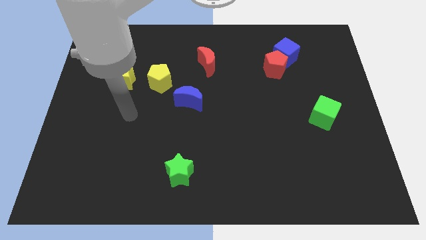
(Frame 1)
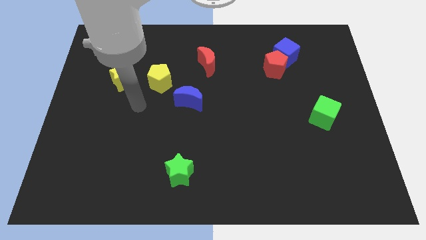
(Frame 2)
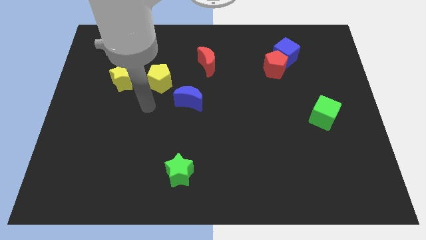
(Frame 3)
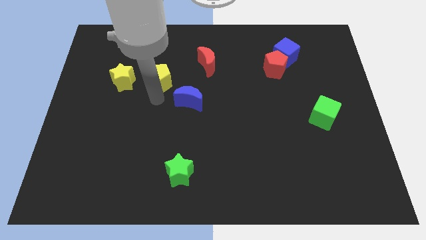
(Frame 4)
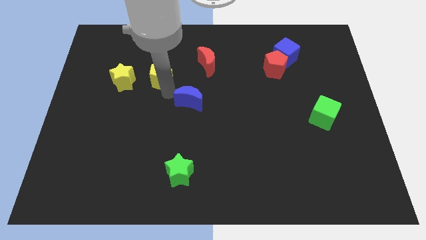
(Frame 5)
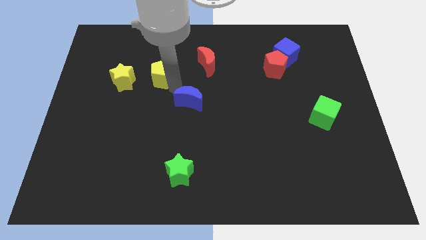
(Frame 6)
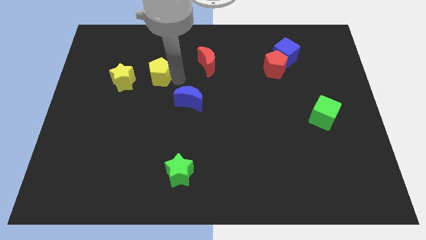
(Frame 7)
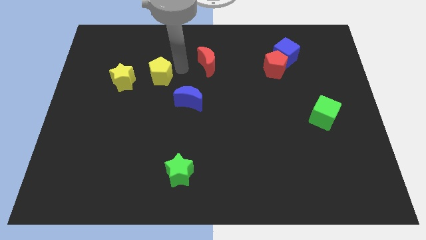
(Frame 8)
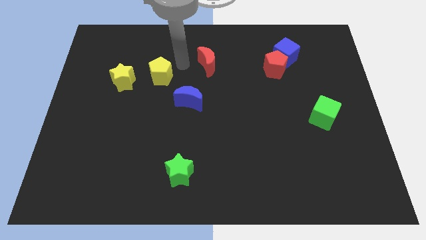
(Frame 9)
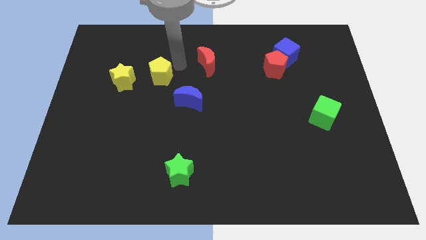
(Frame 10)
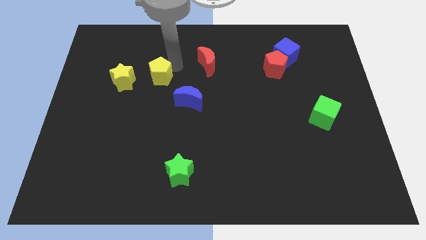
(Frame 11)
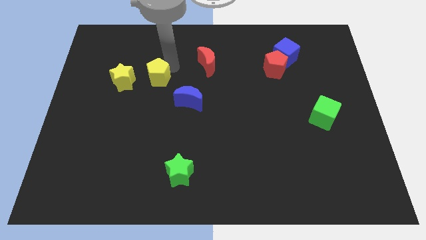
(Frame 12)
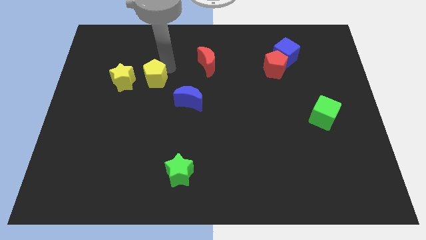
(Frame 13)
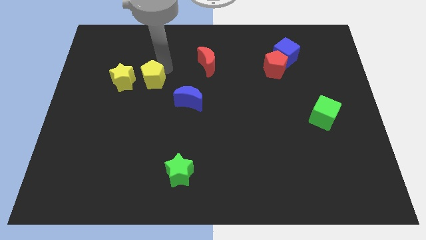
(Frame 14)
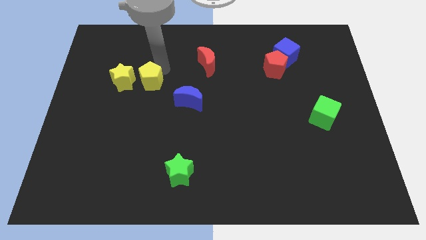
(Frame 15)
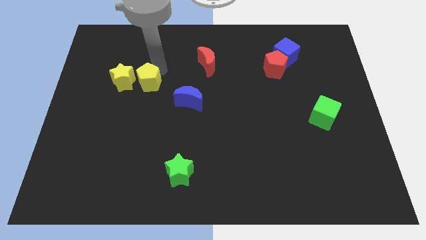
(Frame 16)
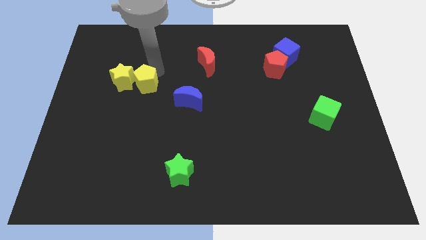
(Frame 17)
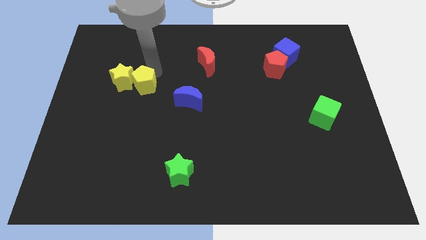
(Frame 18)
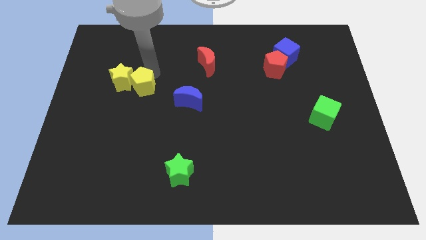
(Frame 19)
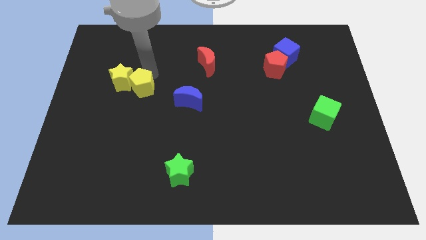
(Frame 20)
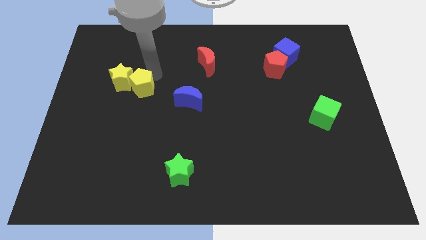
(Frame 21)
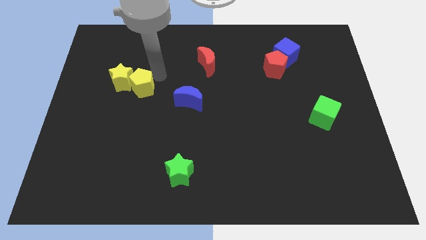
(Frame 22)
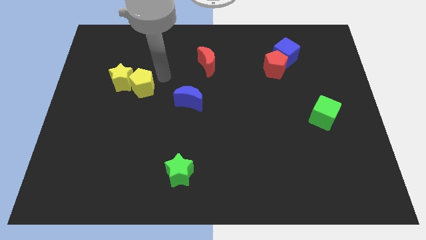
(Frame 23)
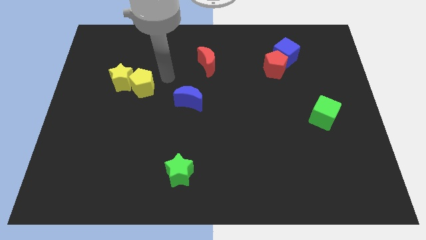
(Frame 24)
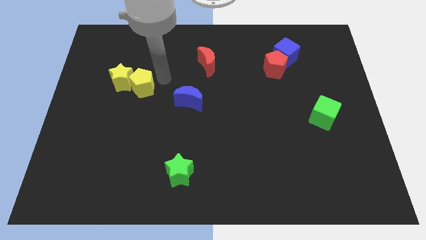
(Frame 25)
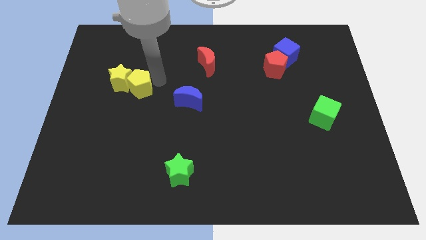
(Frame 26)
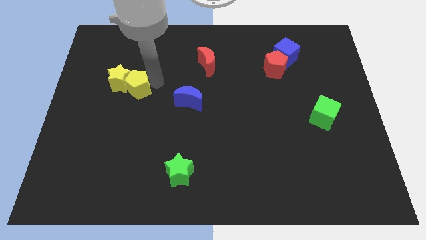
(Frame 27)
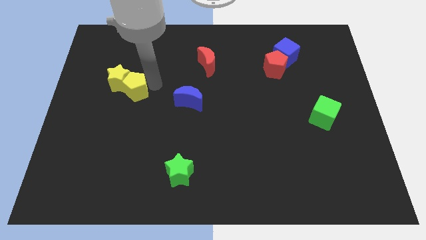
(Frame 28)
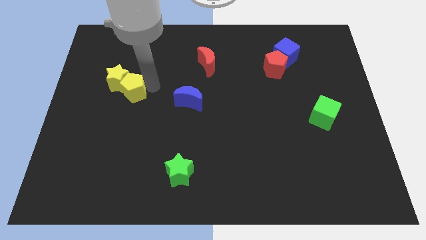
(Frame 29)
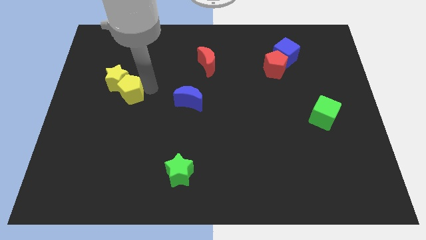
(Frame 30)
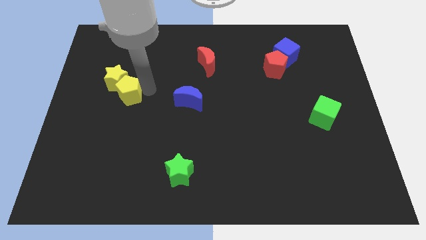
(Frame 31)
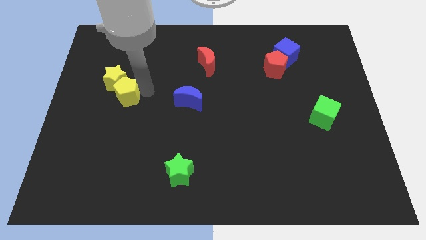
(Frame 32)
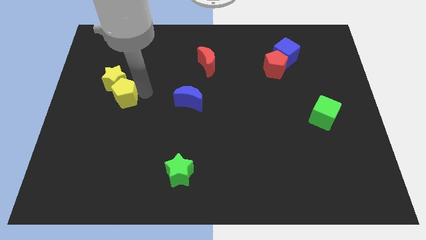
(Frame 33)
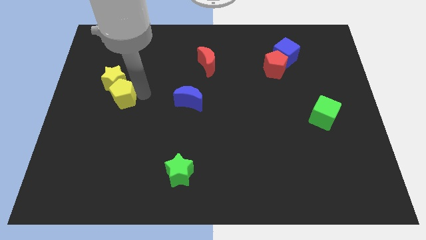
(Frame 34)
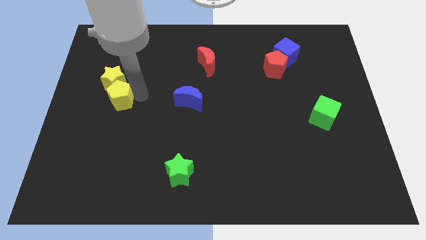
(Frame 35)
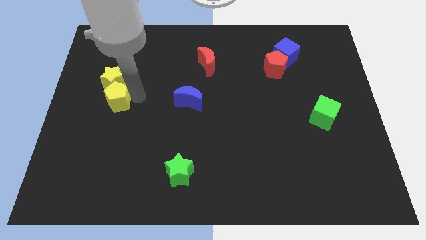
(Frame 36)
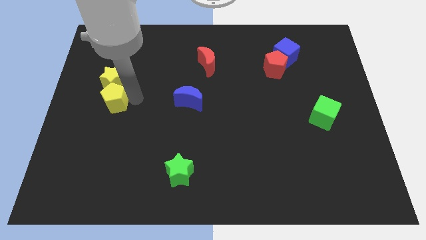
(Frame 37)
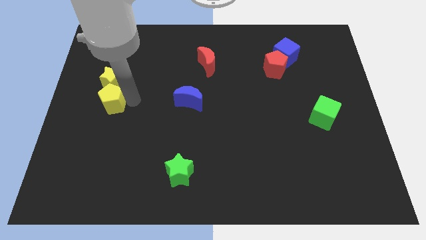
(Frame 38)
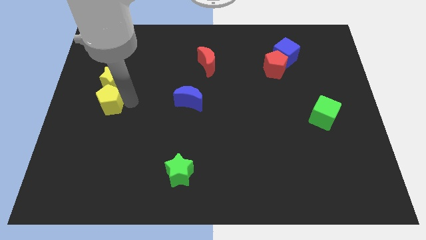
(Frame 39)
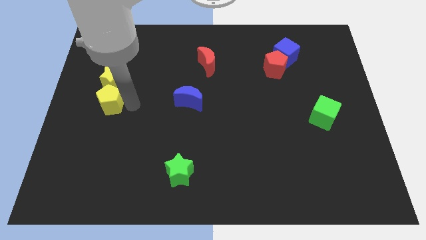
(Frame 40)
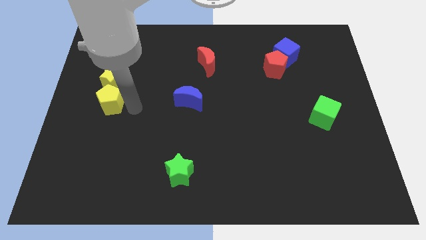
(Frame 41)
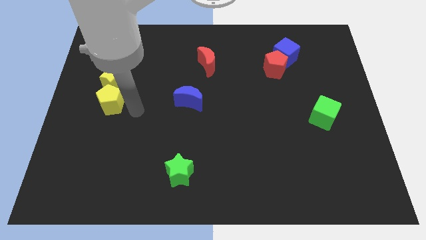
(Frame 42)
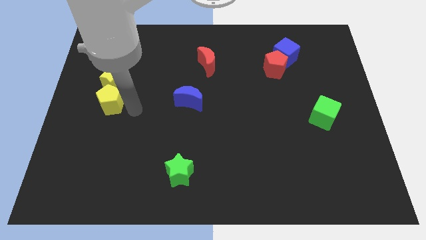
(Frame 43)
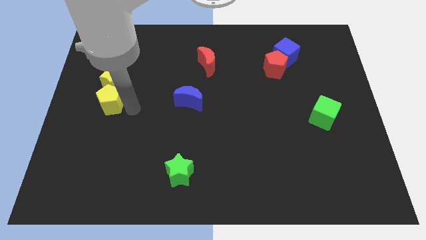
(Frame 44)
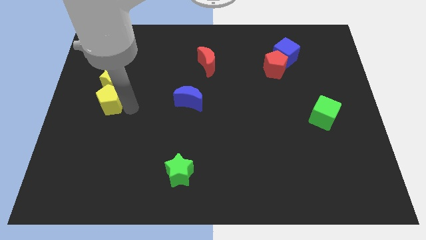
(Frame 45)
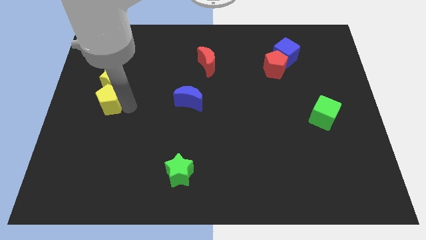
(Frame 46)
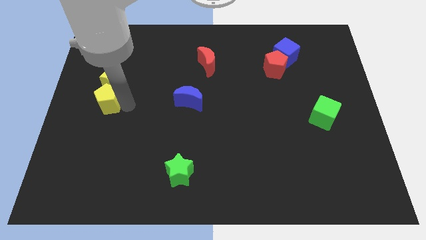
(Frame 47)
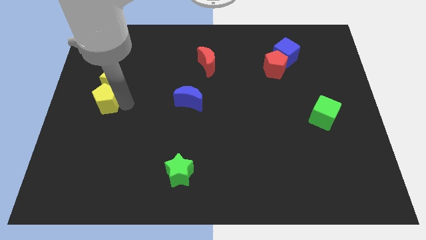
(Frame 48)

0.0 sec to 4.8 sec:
put the yellow pentagon to the left side of the board

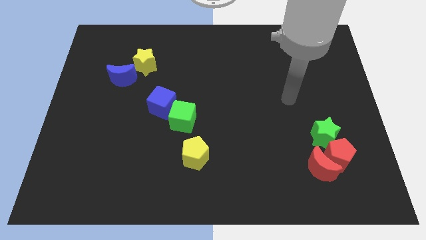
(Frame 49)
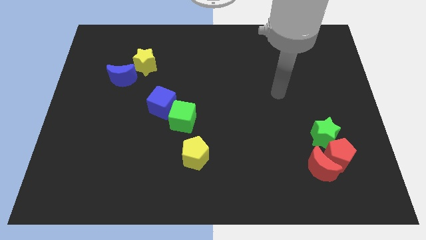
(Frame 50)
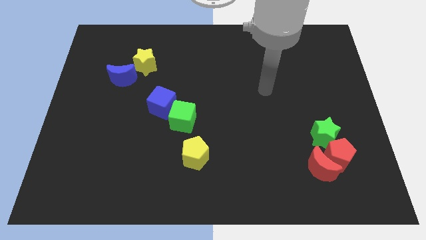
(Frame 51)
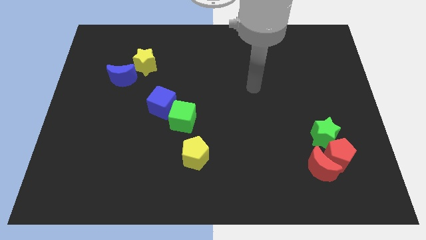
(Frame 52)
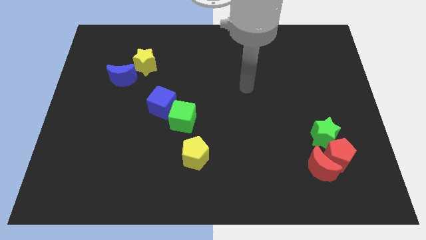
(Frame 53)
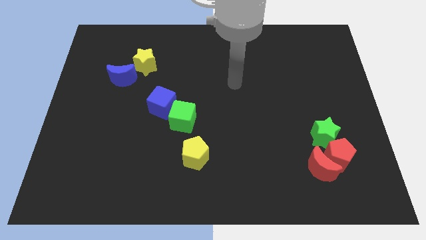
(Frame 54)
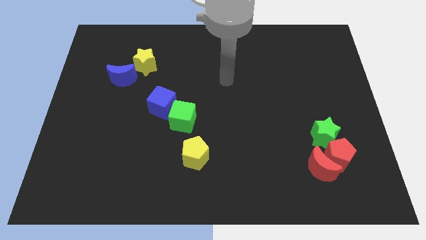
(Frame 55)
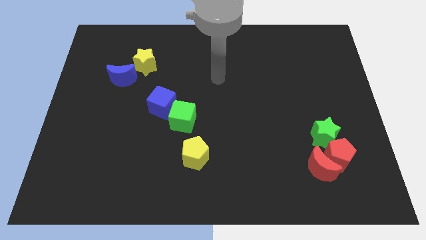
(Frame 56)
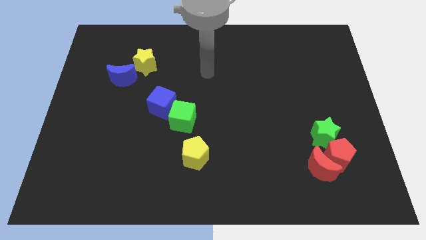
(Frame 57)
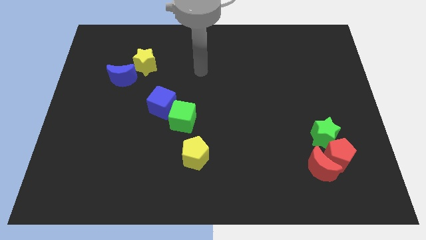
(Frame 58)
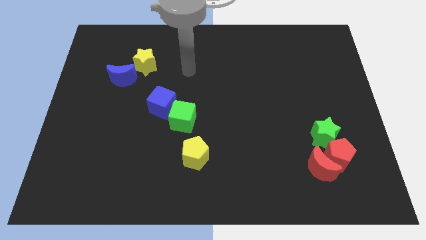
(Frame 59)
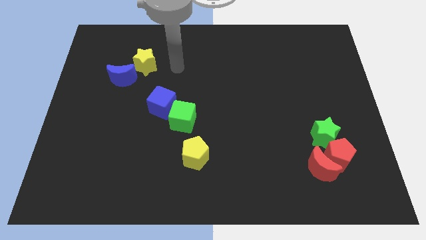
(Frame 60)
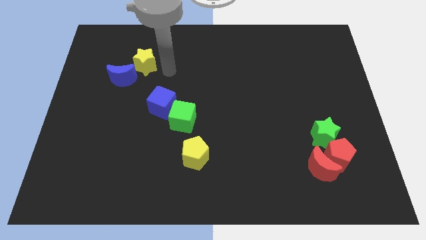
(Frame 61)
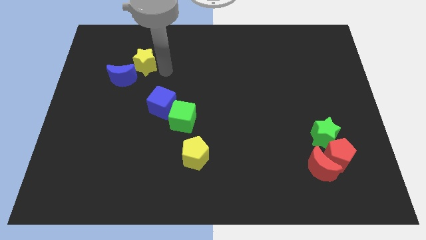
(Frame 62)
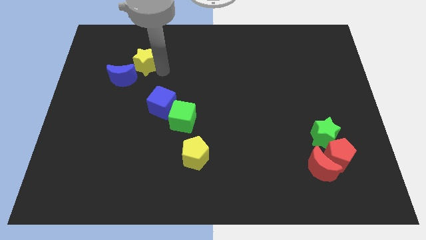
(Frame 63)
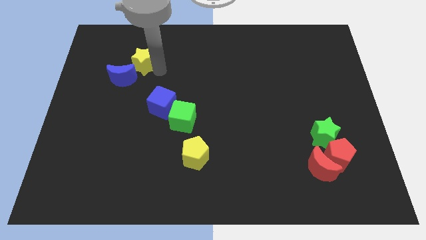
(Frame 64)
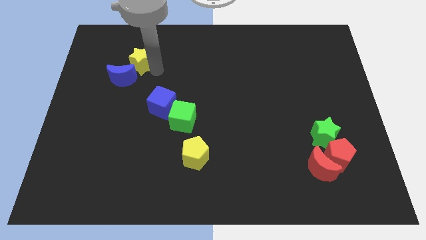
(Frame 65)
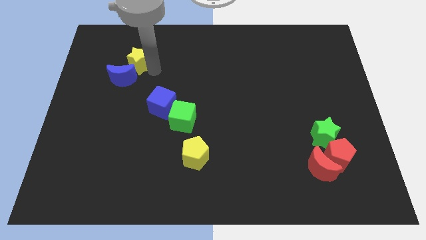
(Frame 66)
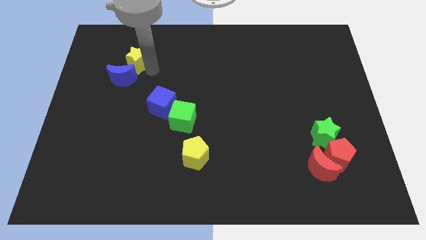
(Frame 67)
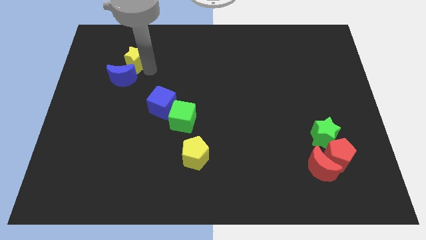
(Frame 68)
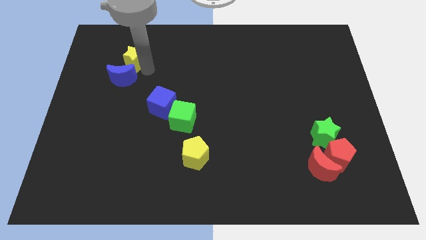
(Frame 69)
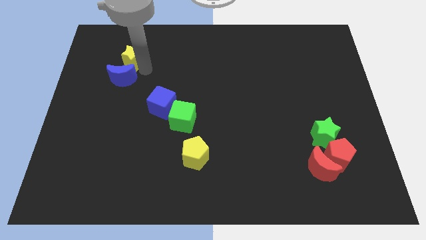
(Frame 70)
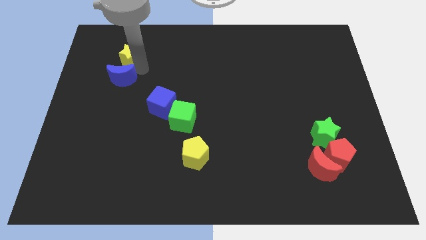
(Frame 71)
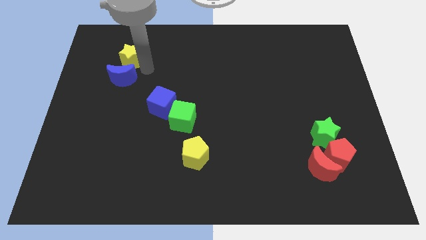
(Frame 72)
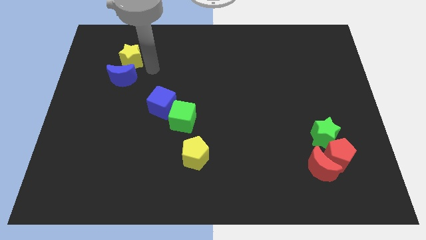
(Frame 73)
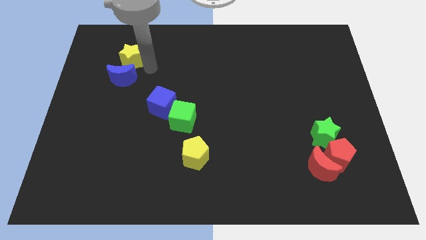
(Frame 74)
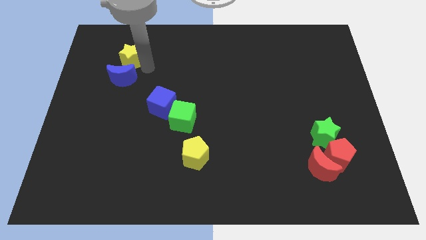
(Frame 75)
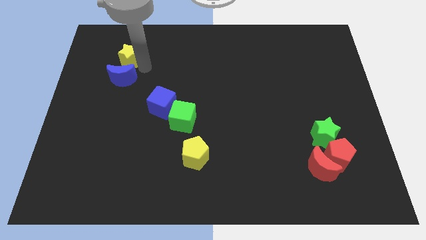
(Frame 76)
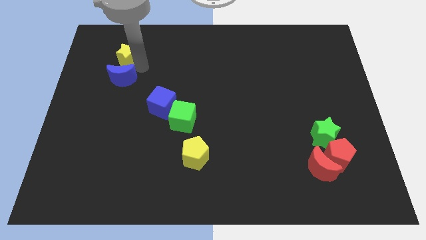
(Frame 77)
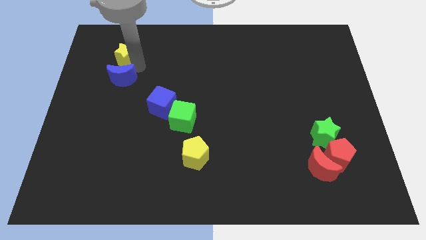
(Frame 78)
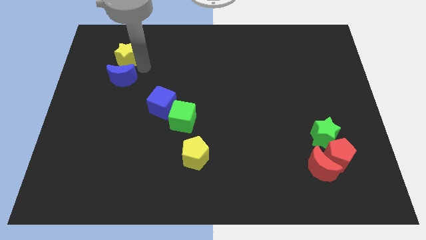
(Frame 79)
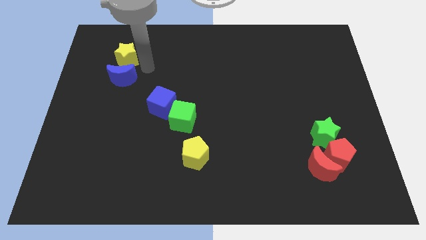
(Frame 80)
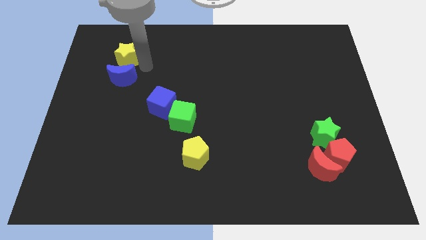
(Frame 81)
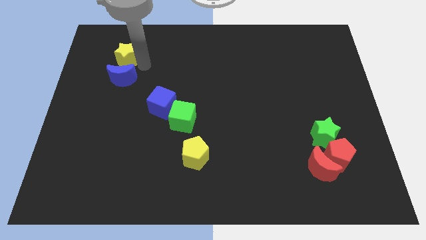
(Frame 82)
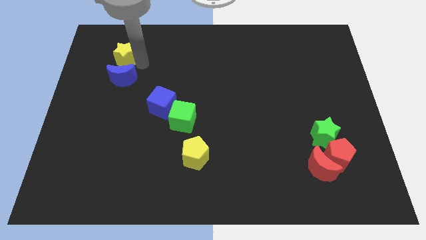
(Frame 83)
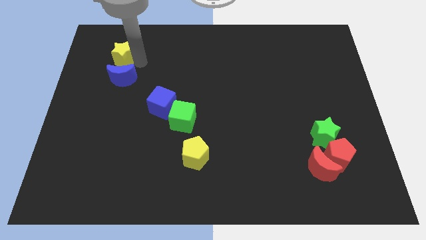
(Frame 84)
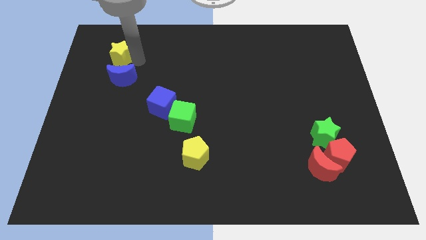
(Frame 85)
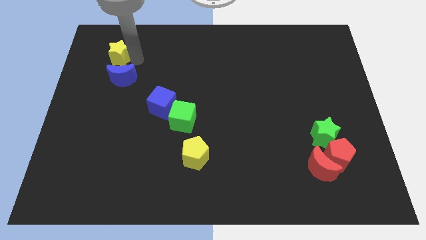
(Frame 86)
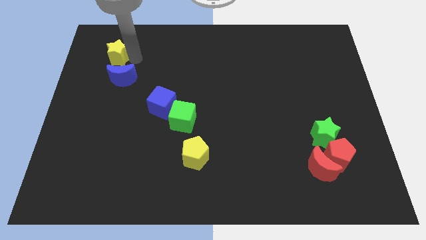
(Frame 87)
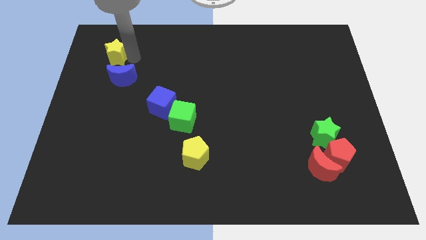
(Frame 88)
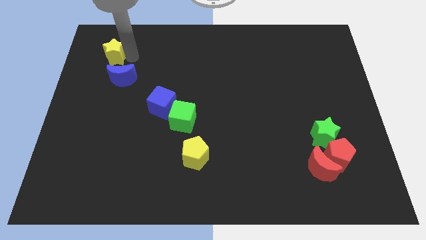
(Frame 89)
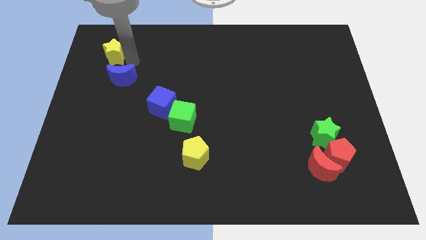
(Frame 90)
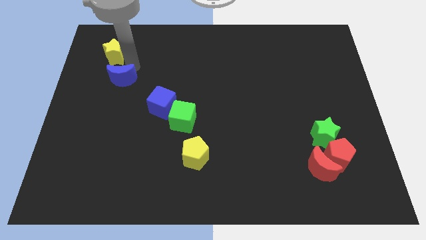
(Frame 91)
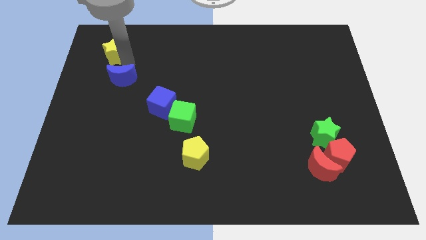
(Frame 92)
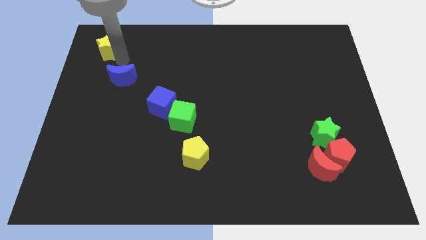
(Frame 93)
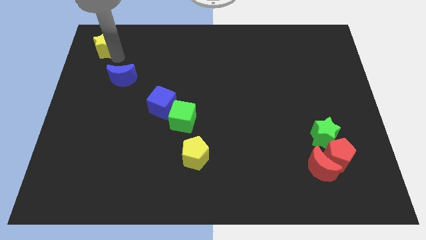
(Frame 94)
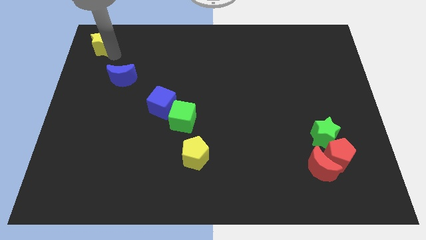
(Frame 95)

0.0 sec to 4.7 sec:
move the yellow star to the upper left corner
